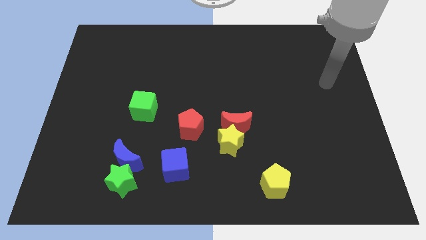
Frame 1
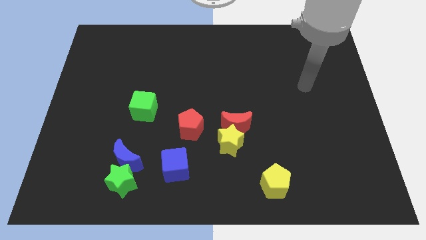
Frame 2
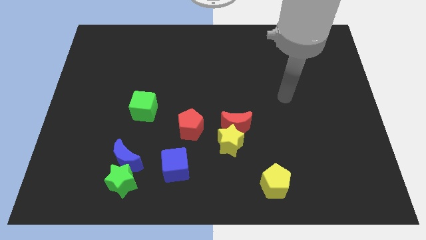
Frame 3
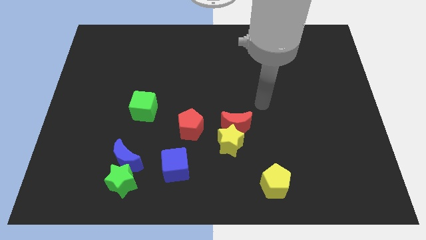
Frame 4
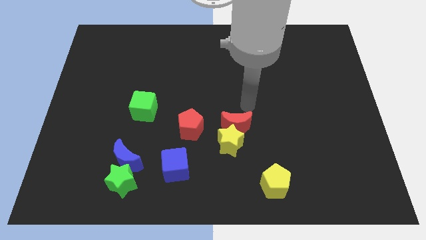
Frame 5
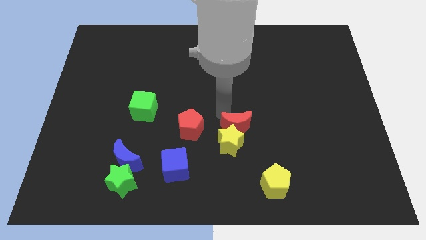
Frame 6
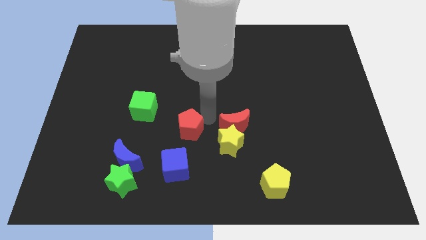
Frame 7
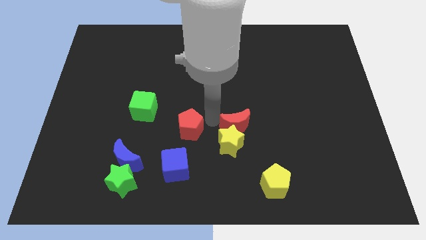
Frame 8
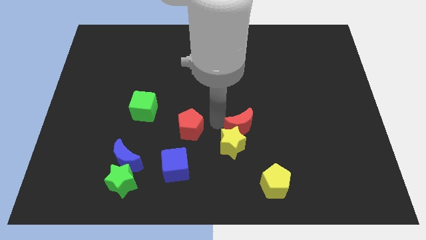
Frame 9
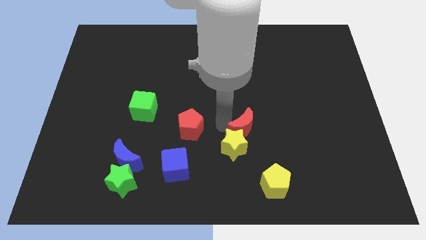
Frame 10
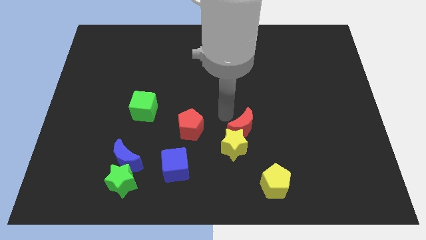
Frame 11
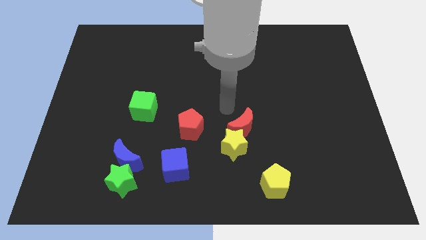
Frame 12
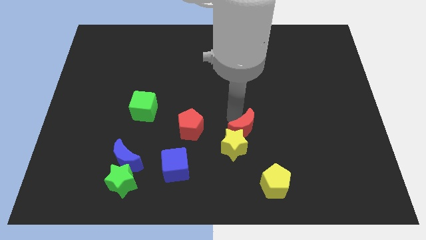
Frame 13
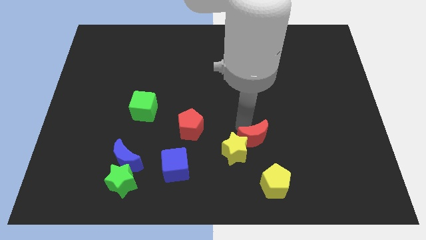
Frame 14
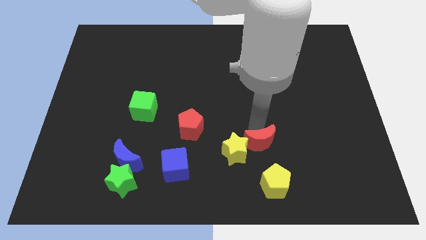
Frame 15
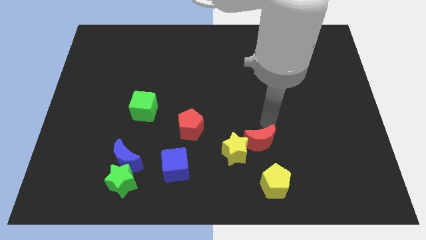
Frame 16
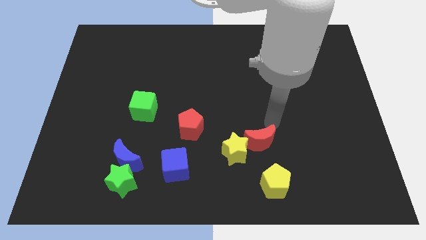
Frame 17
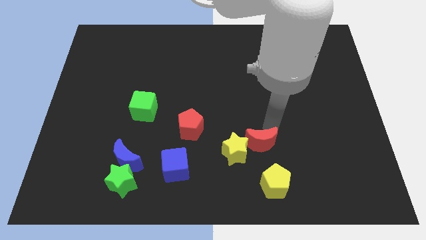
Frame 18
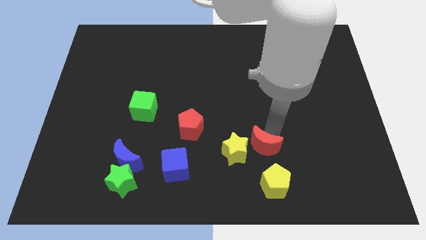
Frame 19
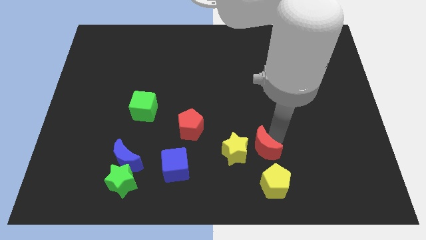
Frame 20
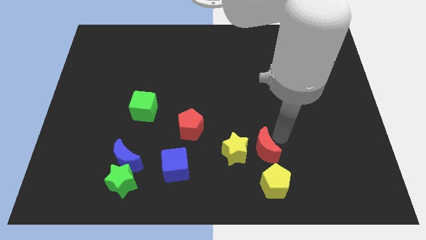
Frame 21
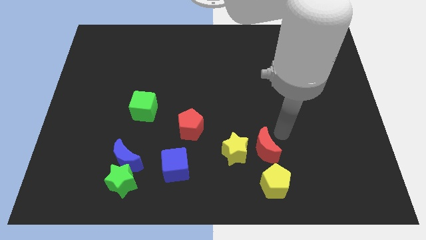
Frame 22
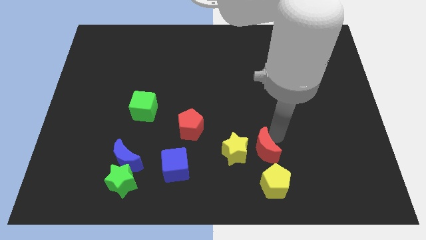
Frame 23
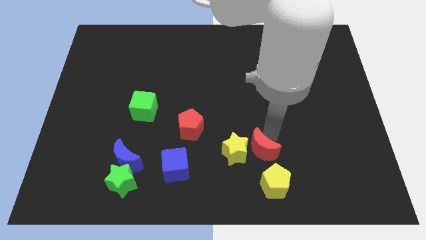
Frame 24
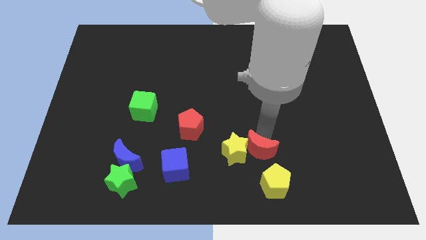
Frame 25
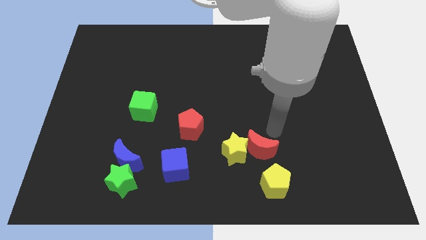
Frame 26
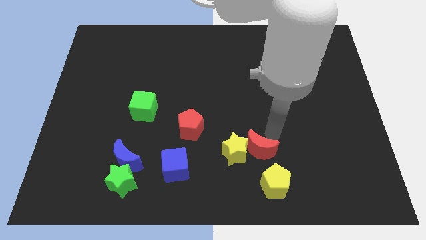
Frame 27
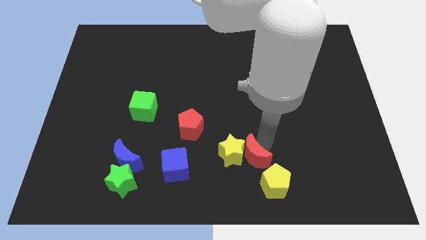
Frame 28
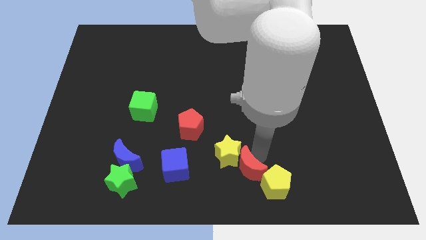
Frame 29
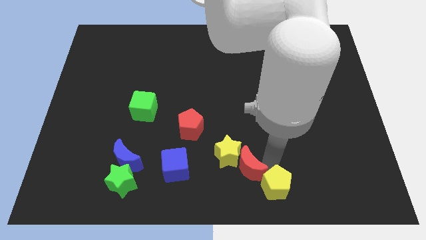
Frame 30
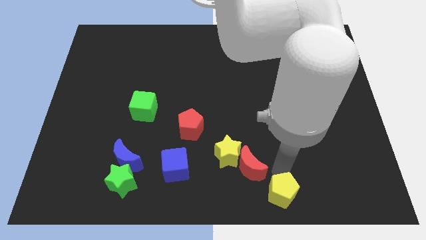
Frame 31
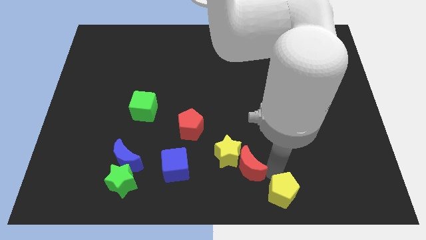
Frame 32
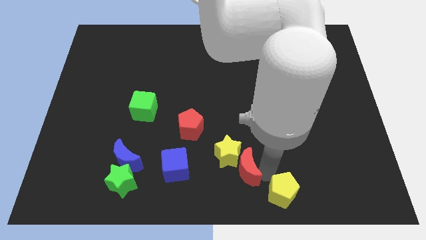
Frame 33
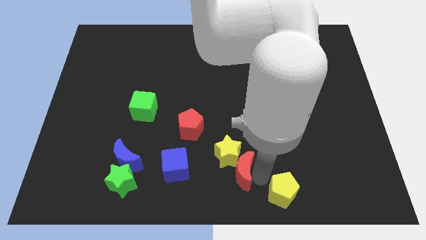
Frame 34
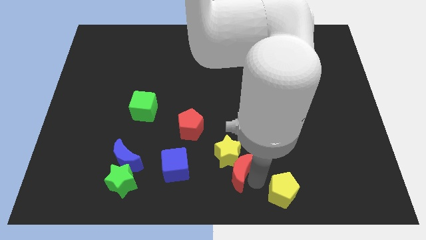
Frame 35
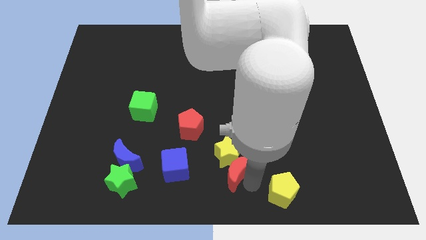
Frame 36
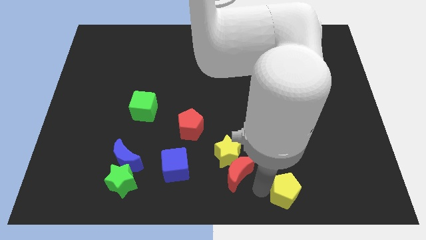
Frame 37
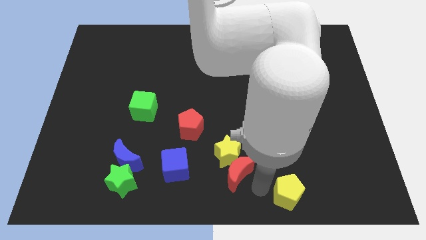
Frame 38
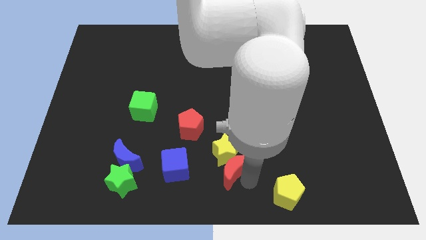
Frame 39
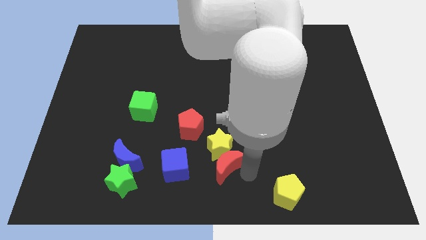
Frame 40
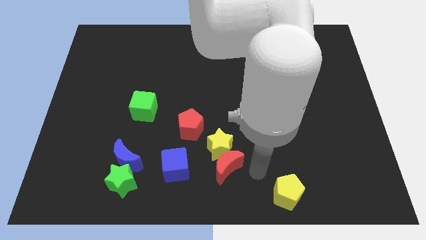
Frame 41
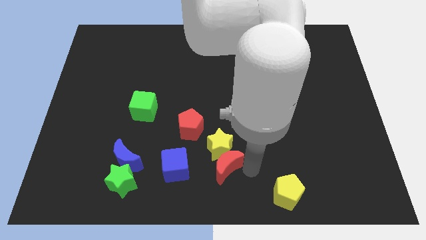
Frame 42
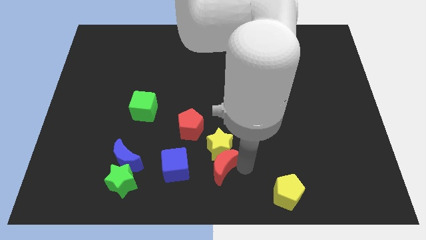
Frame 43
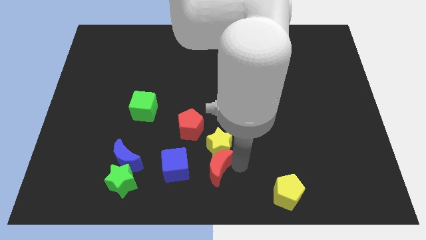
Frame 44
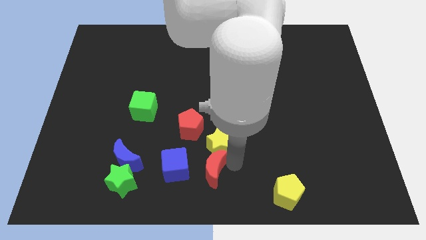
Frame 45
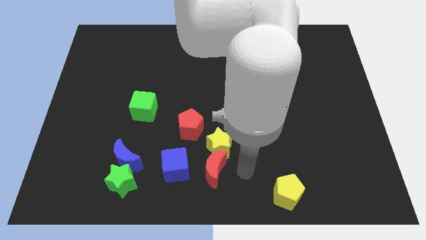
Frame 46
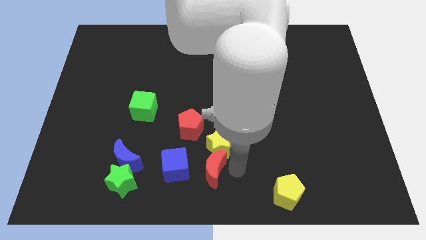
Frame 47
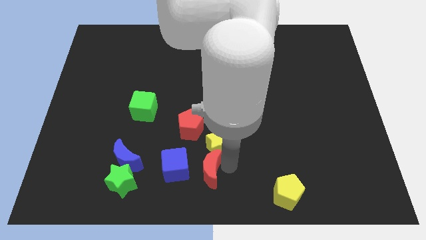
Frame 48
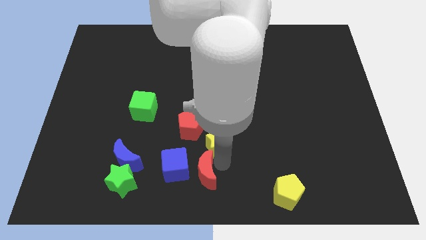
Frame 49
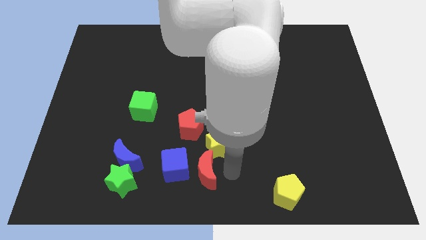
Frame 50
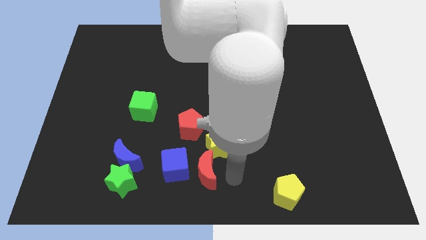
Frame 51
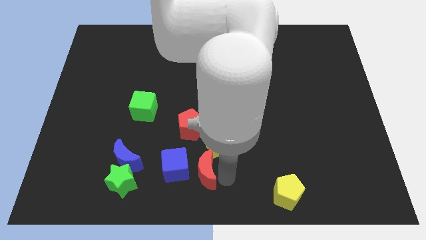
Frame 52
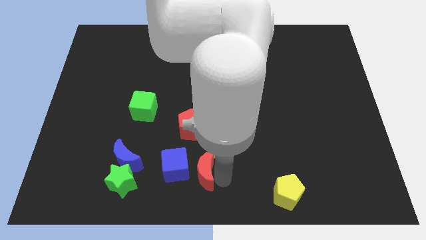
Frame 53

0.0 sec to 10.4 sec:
move the red moon to the blue cube

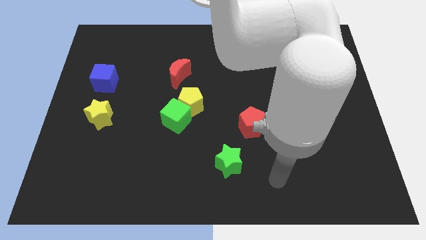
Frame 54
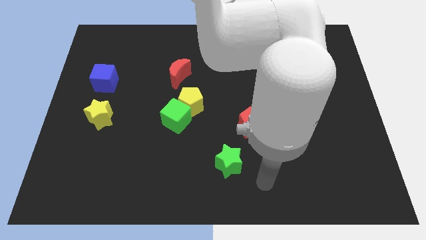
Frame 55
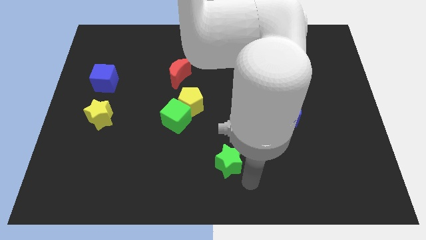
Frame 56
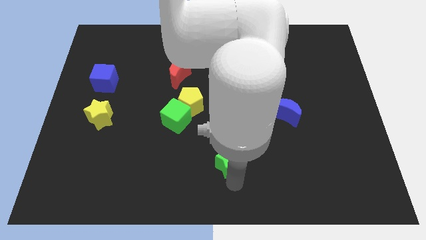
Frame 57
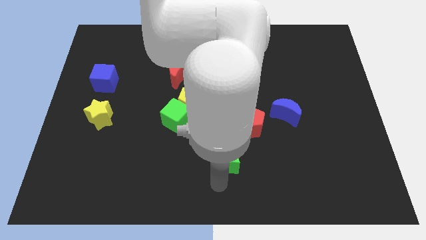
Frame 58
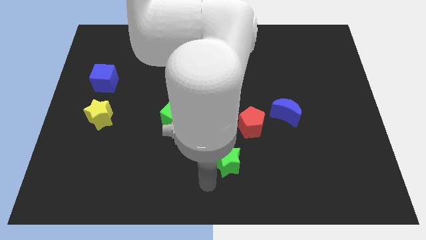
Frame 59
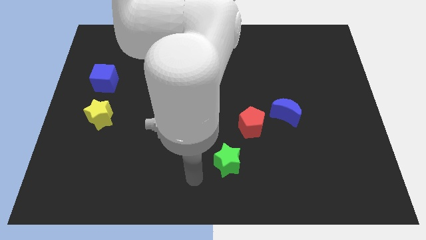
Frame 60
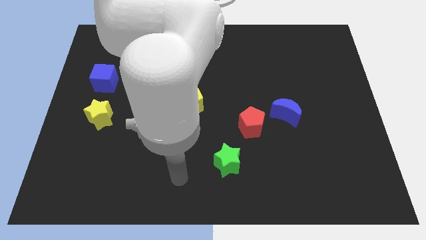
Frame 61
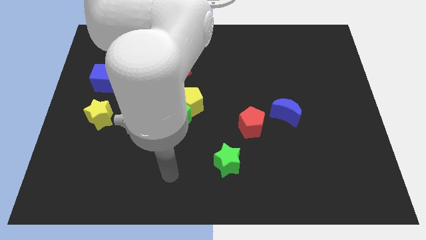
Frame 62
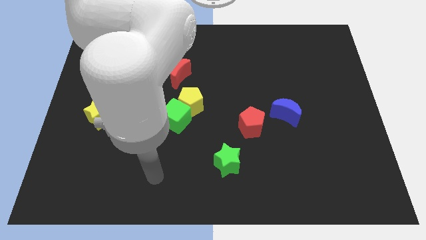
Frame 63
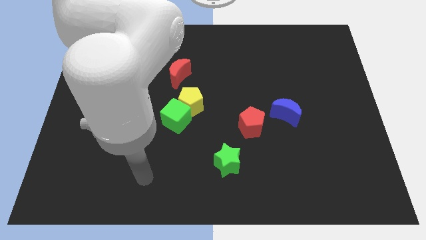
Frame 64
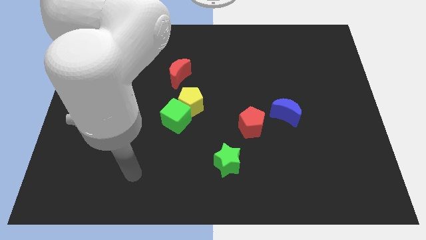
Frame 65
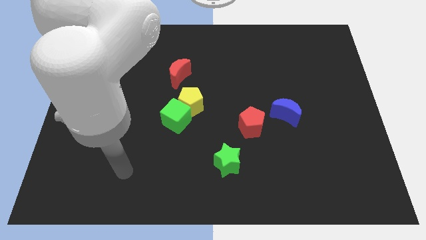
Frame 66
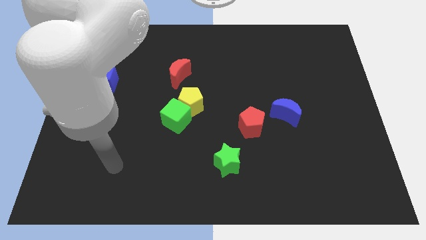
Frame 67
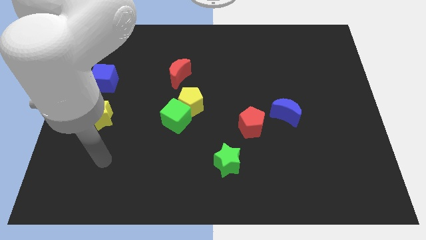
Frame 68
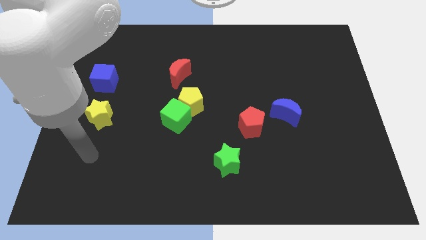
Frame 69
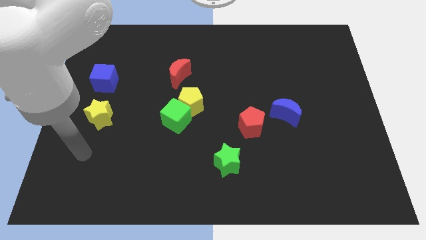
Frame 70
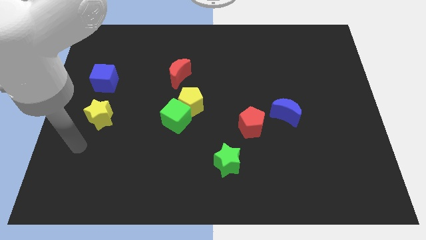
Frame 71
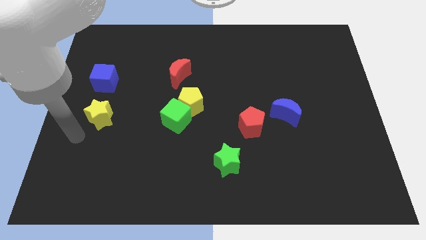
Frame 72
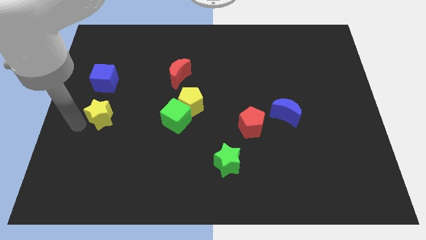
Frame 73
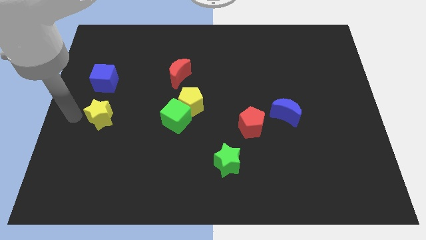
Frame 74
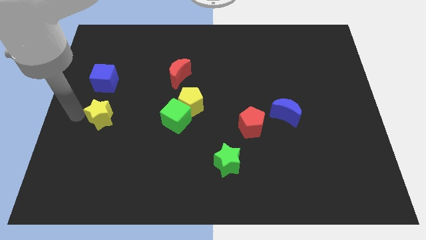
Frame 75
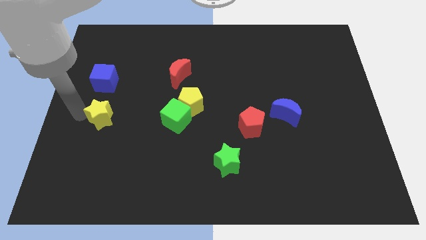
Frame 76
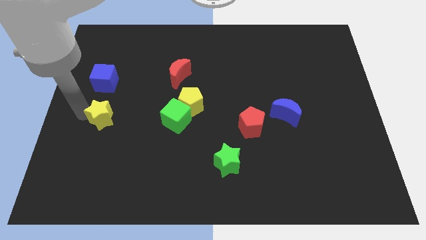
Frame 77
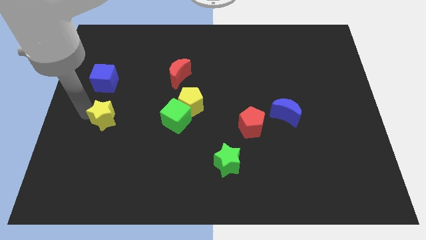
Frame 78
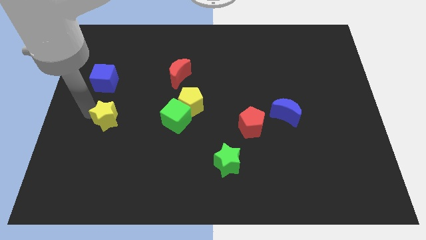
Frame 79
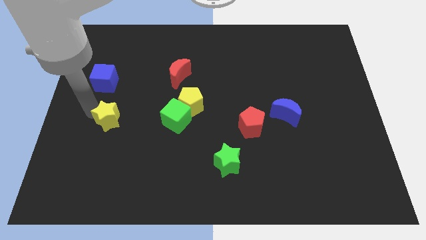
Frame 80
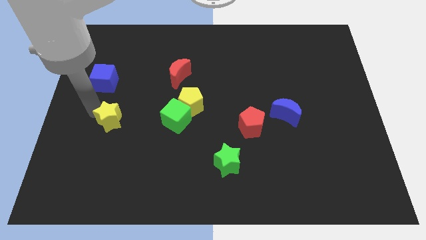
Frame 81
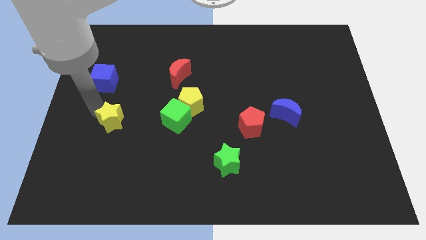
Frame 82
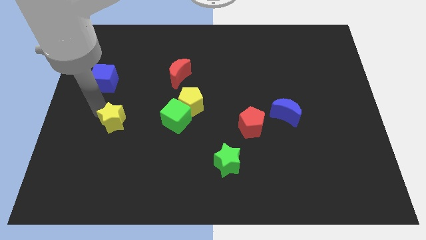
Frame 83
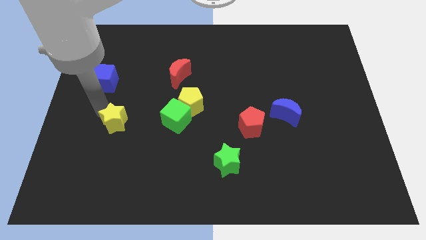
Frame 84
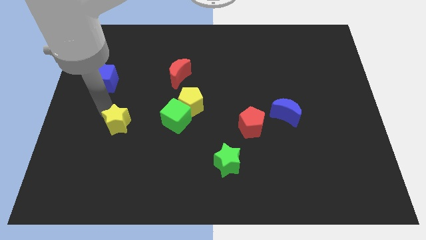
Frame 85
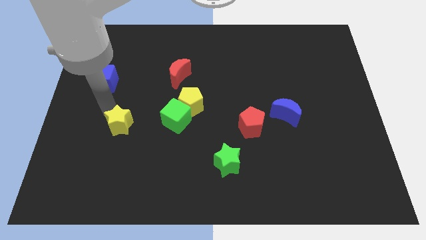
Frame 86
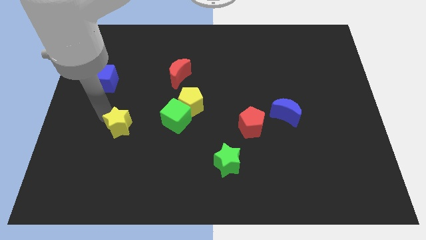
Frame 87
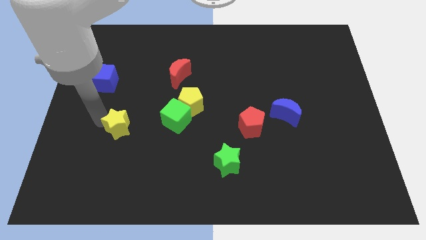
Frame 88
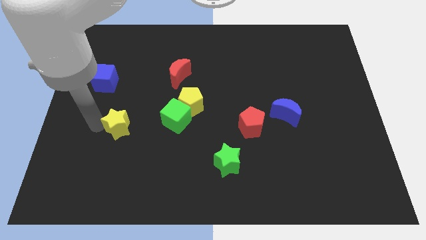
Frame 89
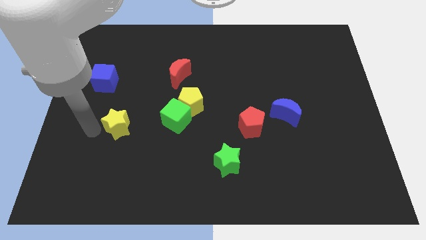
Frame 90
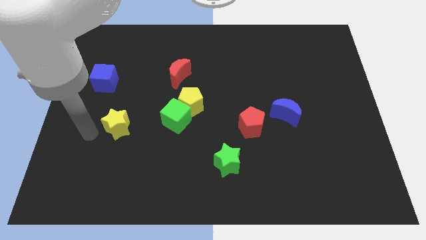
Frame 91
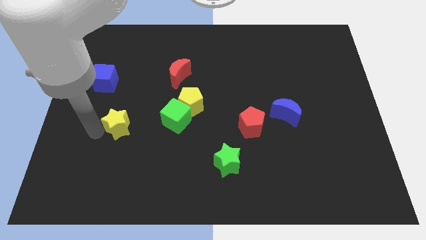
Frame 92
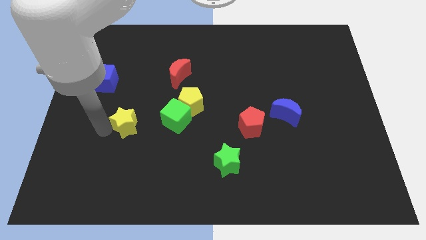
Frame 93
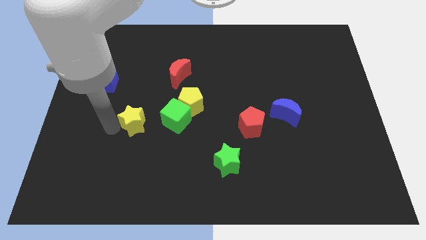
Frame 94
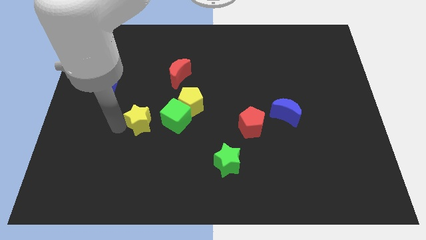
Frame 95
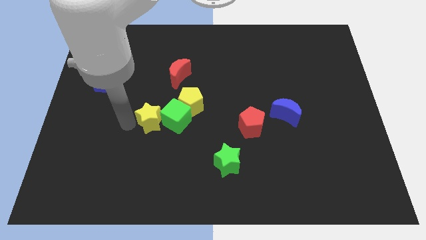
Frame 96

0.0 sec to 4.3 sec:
slide the yellow star to the green cube
